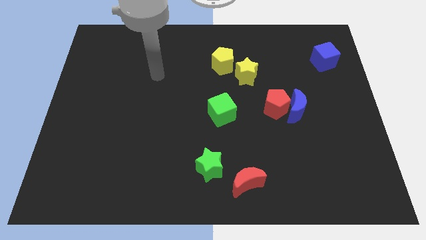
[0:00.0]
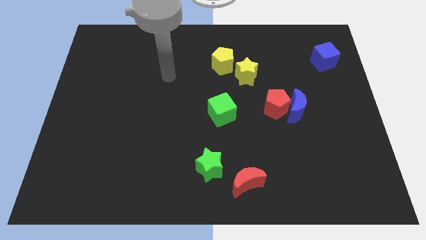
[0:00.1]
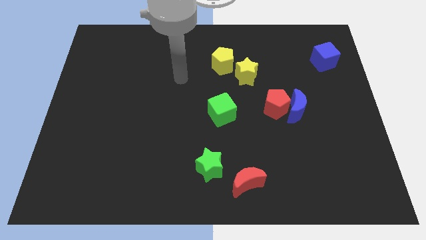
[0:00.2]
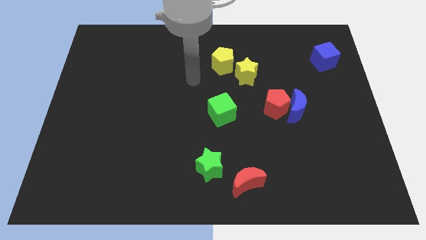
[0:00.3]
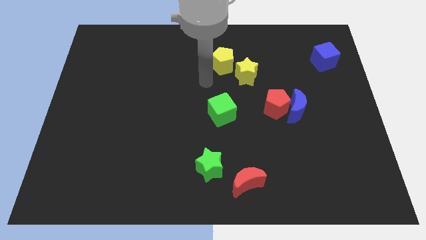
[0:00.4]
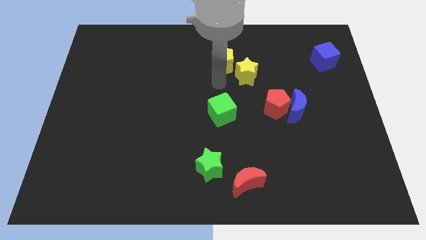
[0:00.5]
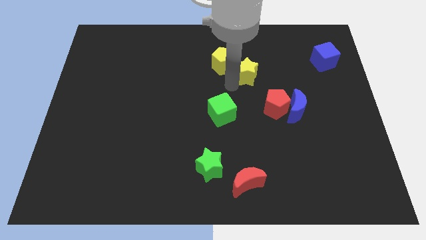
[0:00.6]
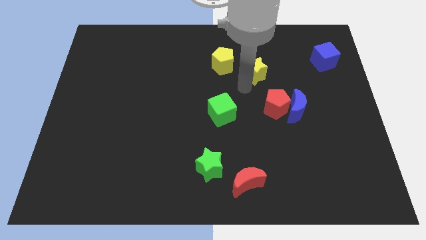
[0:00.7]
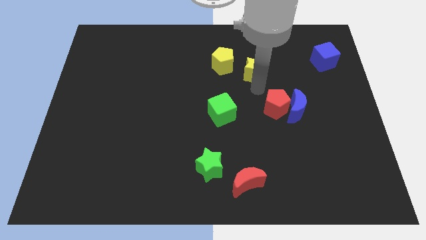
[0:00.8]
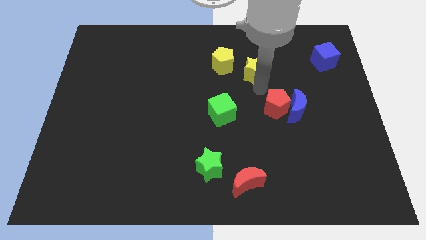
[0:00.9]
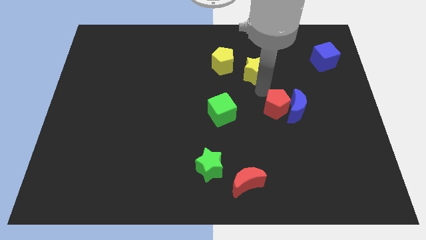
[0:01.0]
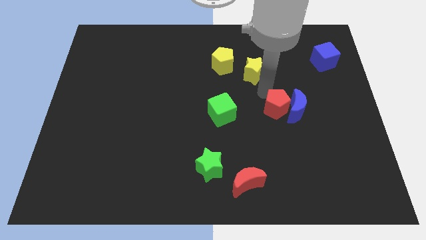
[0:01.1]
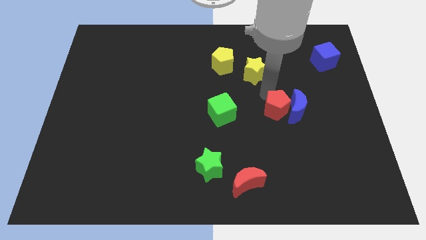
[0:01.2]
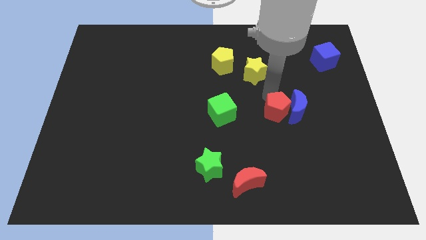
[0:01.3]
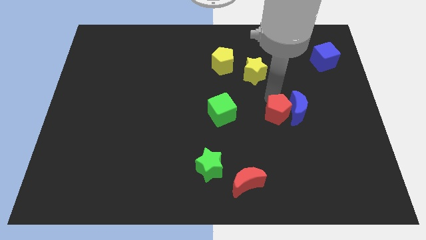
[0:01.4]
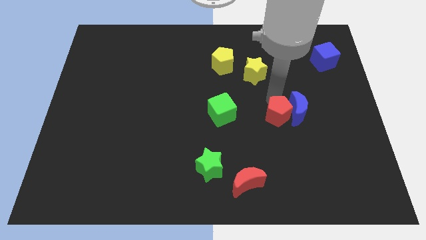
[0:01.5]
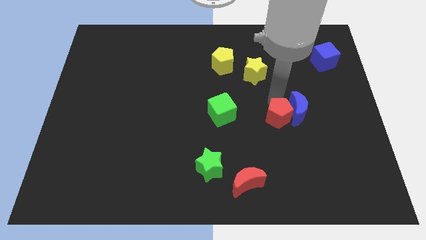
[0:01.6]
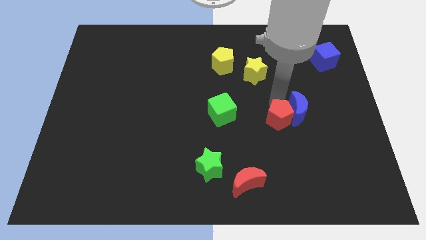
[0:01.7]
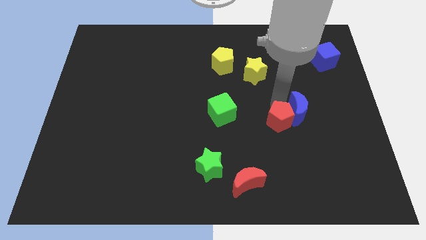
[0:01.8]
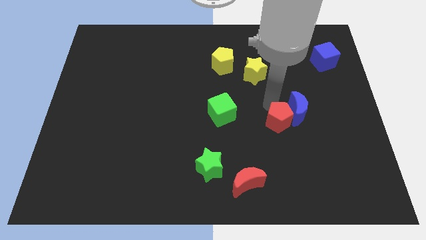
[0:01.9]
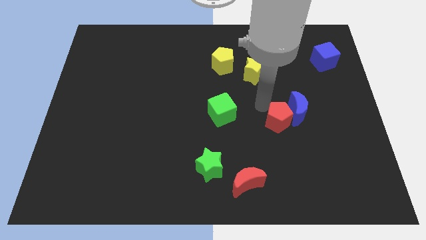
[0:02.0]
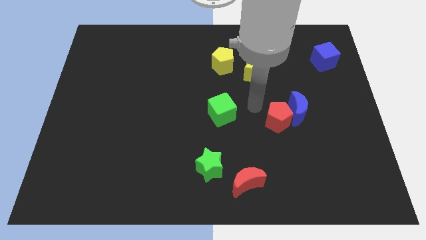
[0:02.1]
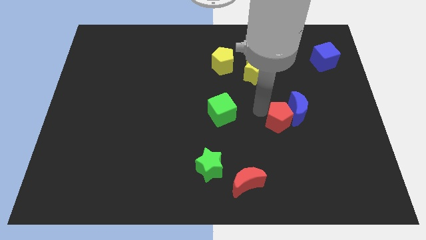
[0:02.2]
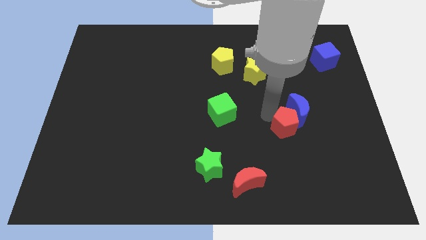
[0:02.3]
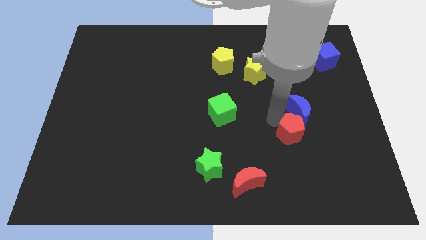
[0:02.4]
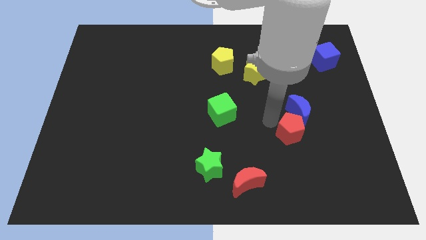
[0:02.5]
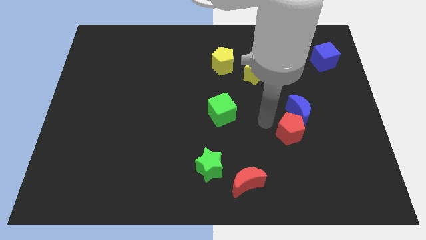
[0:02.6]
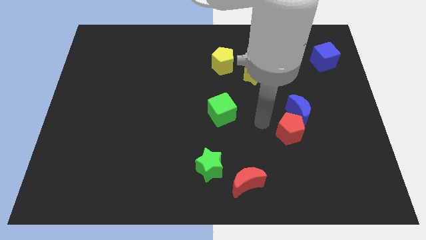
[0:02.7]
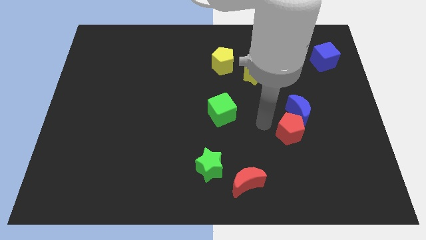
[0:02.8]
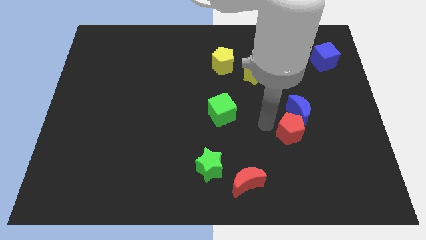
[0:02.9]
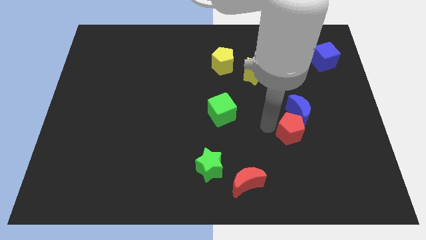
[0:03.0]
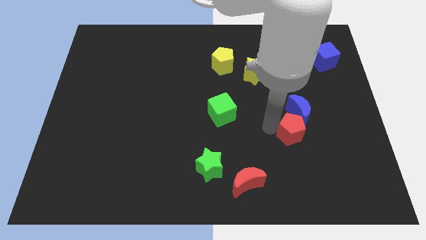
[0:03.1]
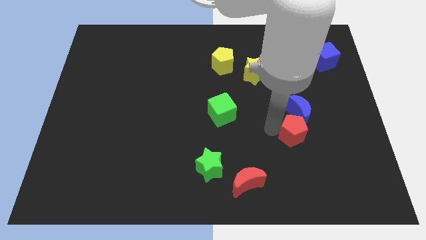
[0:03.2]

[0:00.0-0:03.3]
move the red pentagon a bit downwards and then right

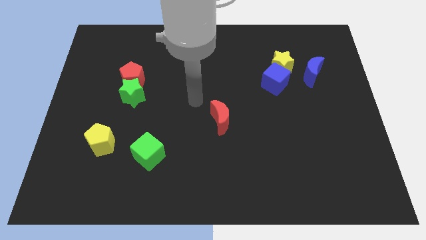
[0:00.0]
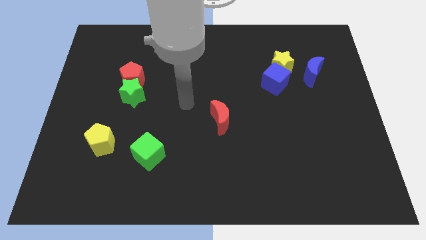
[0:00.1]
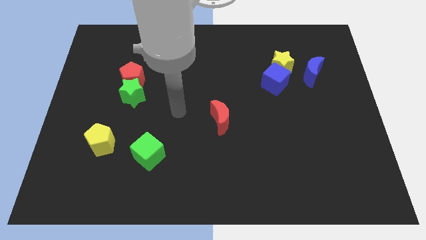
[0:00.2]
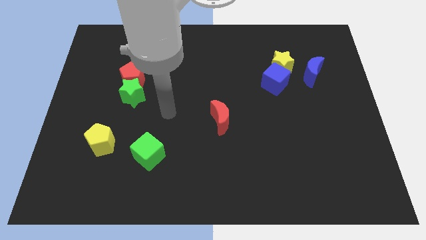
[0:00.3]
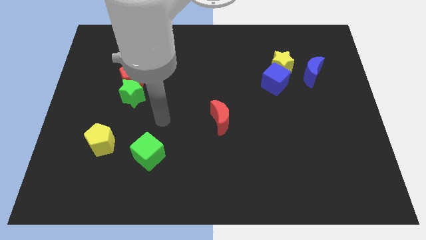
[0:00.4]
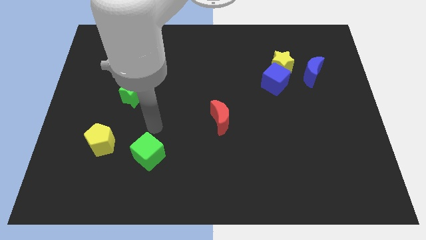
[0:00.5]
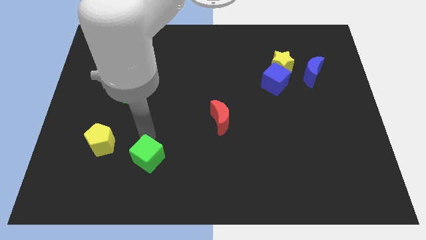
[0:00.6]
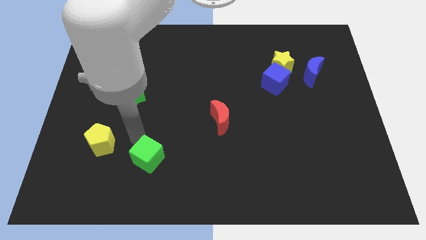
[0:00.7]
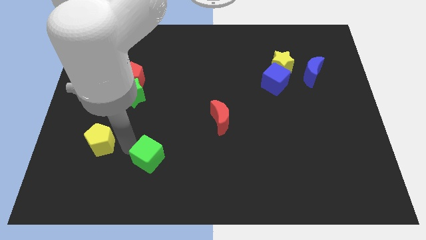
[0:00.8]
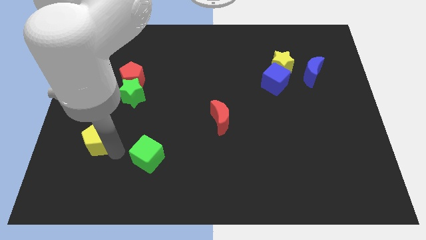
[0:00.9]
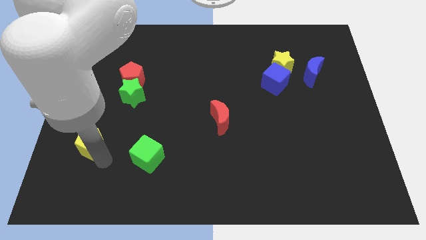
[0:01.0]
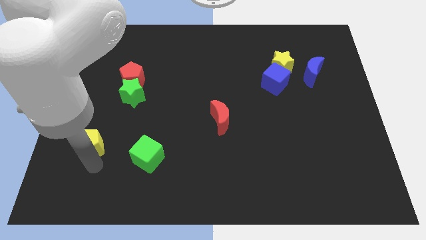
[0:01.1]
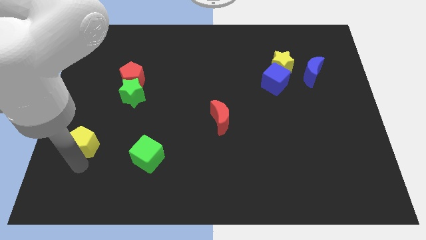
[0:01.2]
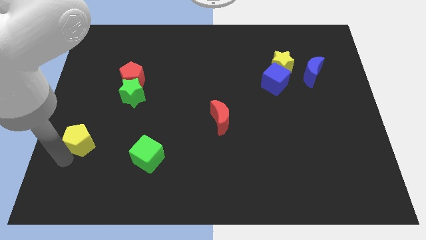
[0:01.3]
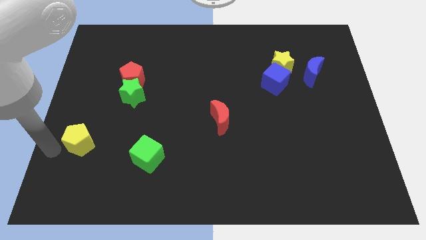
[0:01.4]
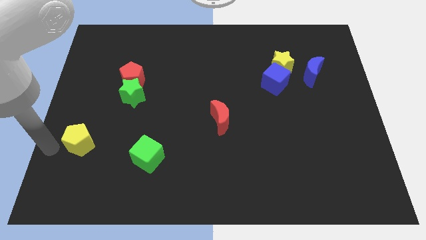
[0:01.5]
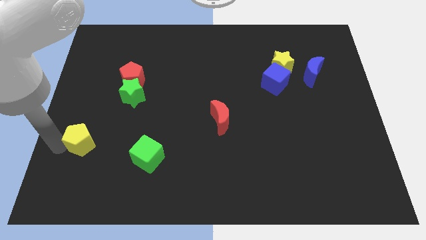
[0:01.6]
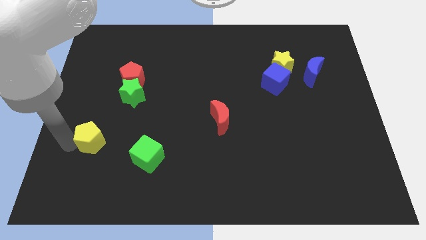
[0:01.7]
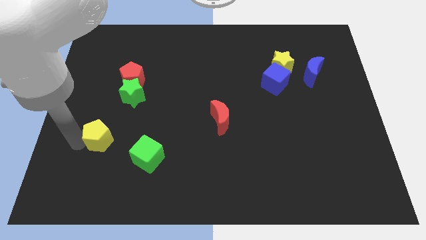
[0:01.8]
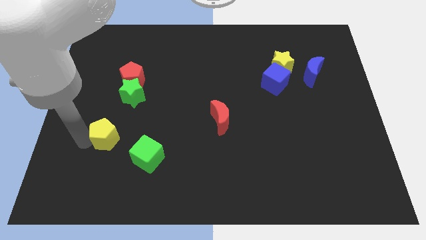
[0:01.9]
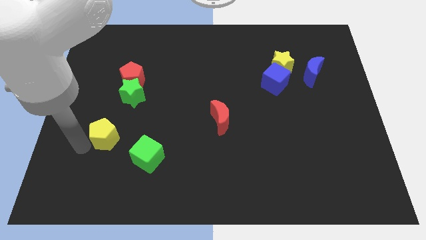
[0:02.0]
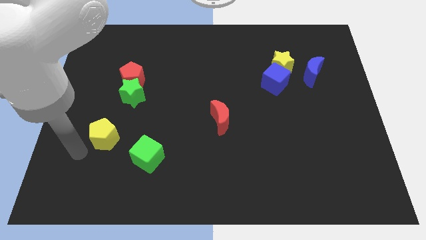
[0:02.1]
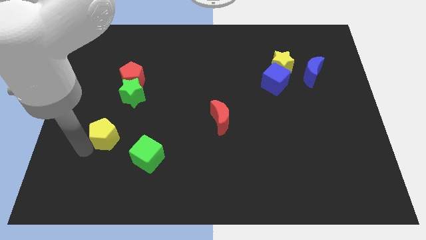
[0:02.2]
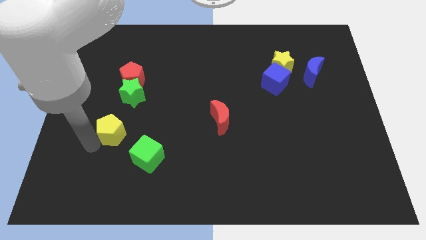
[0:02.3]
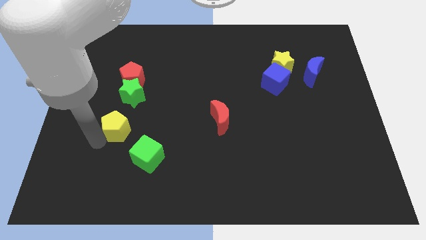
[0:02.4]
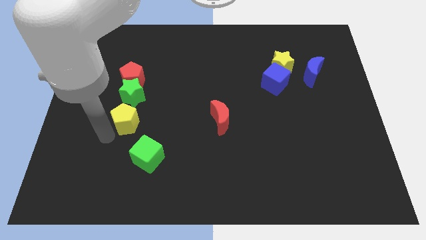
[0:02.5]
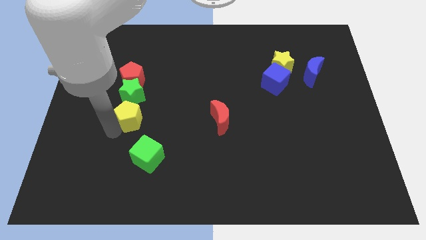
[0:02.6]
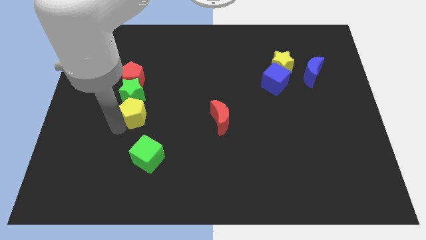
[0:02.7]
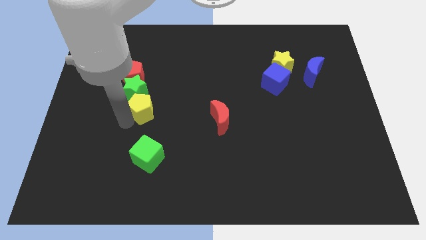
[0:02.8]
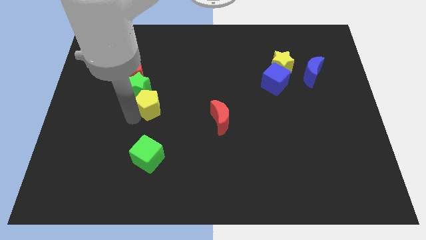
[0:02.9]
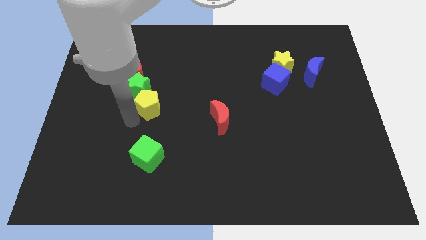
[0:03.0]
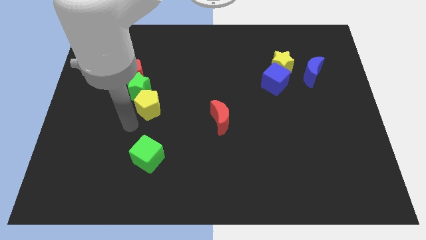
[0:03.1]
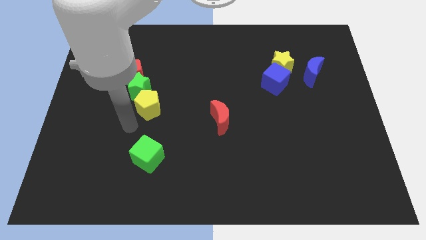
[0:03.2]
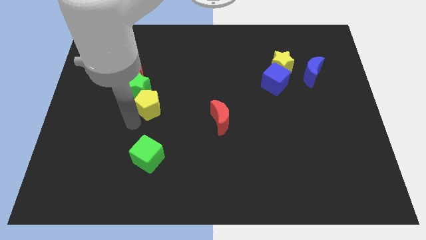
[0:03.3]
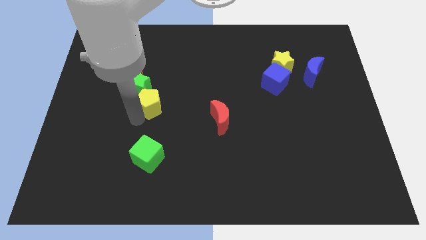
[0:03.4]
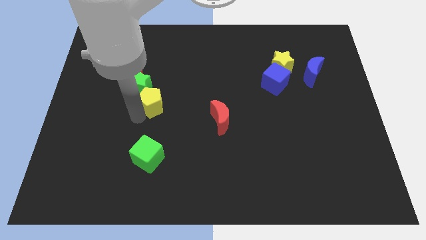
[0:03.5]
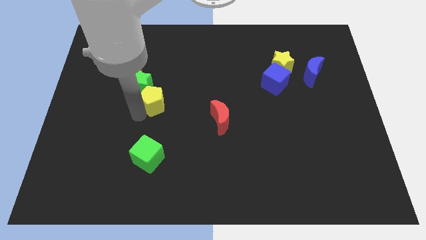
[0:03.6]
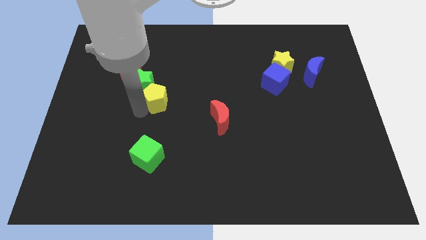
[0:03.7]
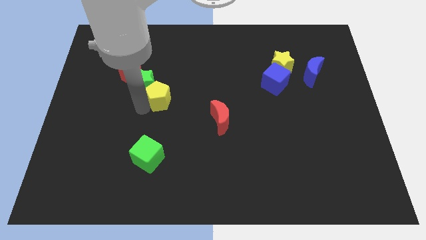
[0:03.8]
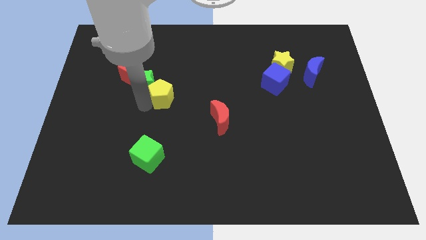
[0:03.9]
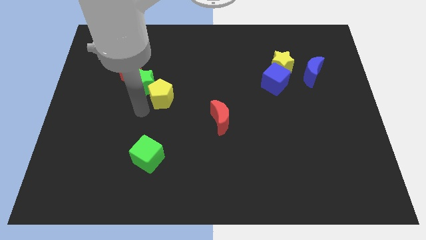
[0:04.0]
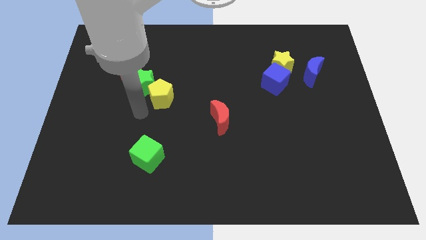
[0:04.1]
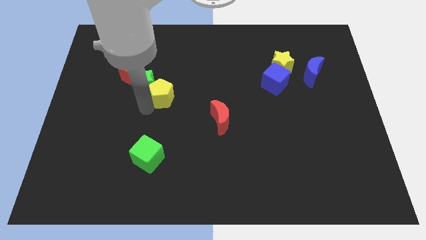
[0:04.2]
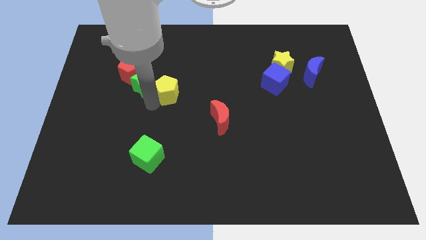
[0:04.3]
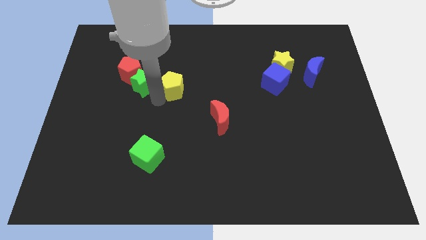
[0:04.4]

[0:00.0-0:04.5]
slide the yellow pentagon up and to the right diagonally
